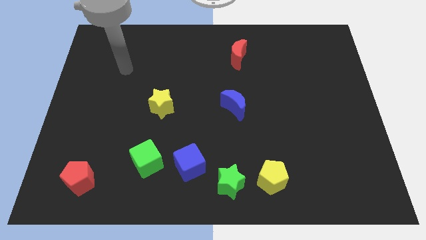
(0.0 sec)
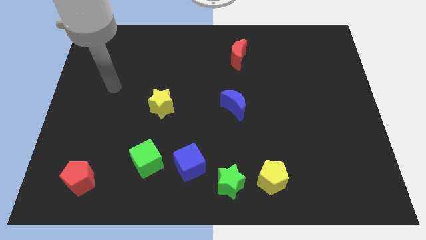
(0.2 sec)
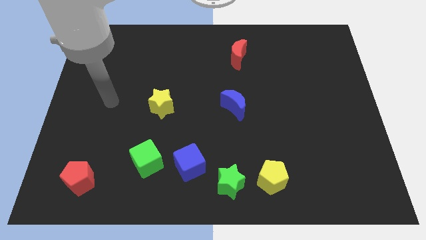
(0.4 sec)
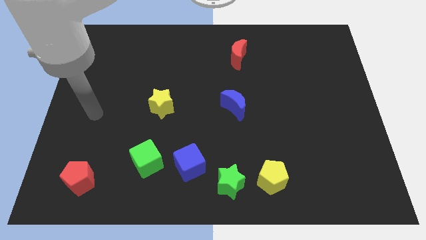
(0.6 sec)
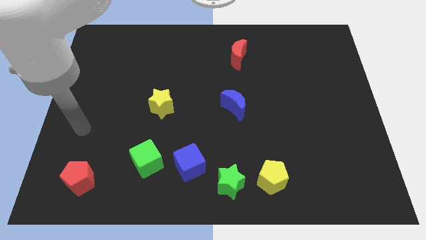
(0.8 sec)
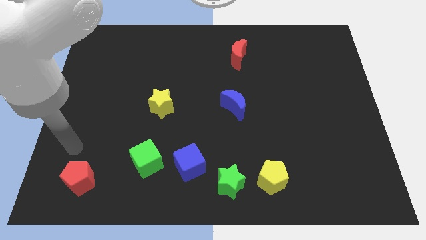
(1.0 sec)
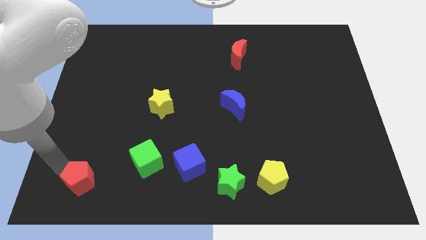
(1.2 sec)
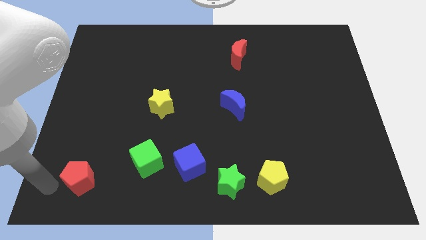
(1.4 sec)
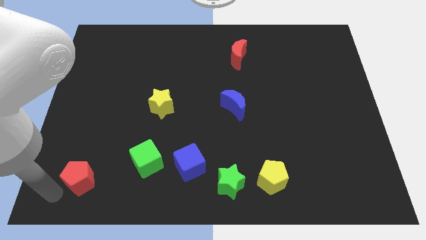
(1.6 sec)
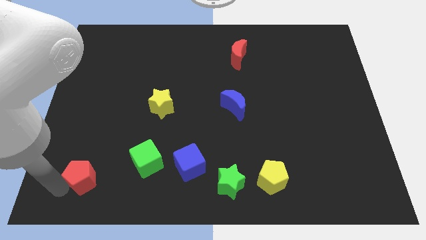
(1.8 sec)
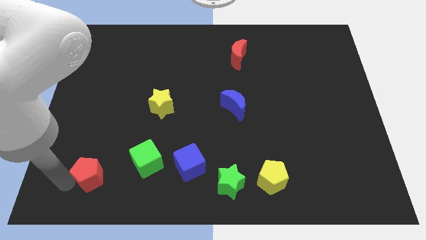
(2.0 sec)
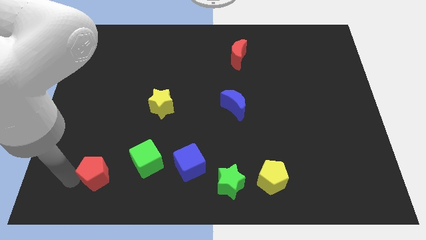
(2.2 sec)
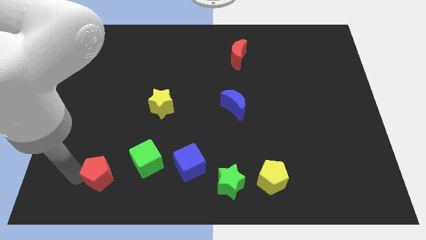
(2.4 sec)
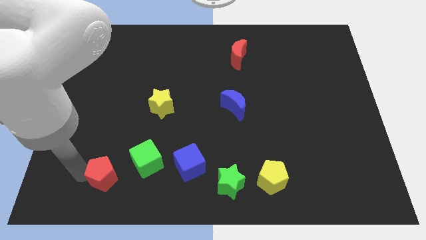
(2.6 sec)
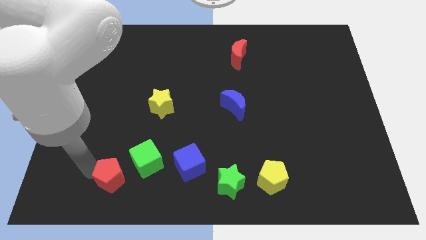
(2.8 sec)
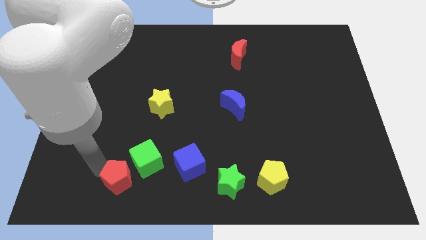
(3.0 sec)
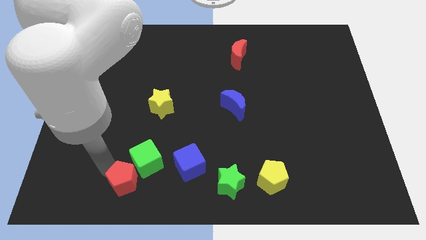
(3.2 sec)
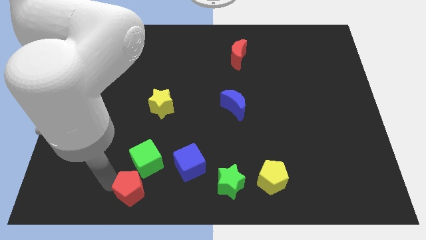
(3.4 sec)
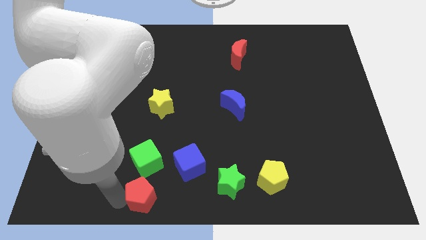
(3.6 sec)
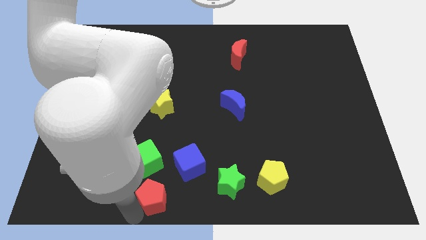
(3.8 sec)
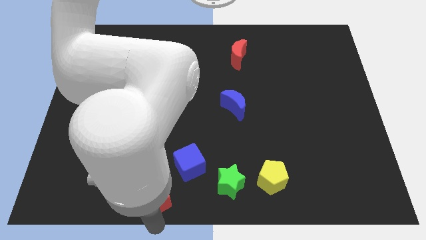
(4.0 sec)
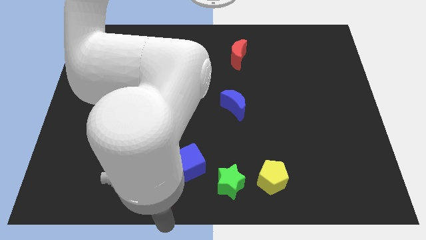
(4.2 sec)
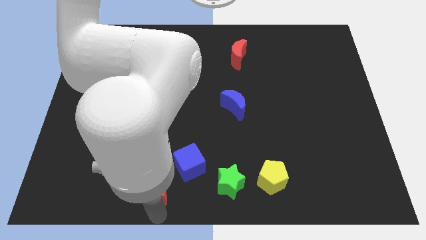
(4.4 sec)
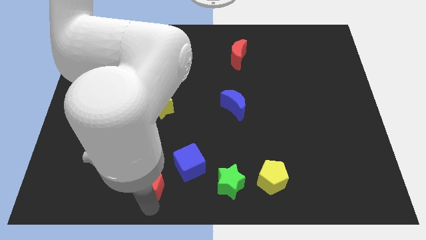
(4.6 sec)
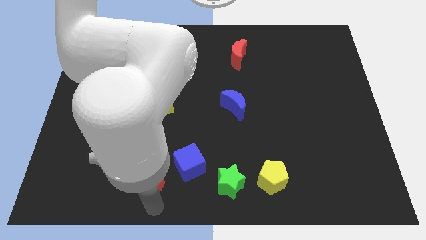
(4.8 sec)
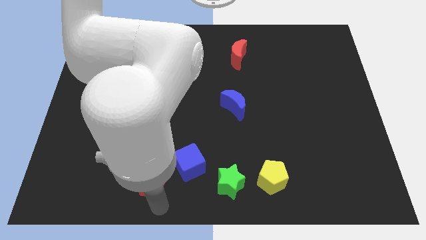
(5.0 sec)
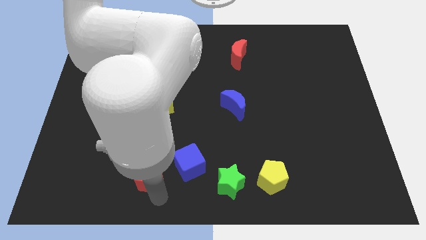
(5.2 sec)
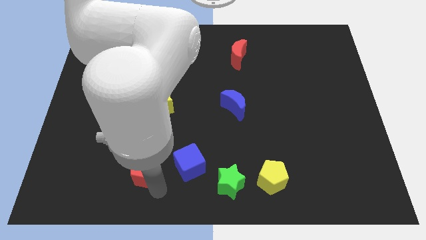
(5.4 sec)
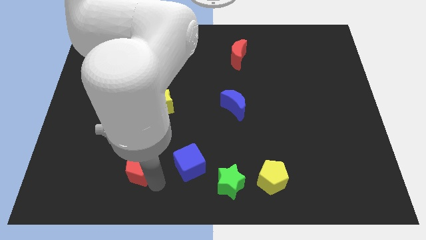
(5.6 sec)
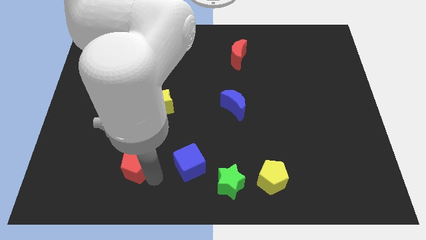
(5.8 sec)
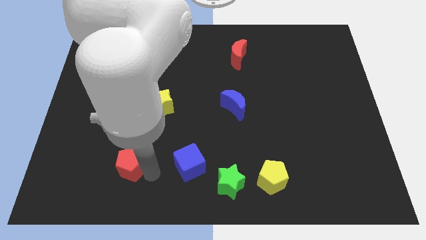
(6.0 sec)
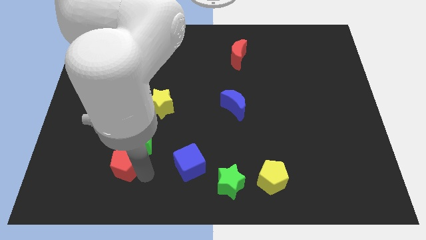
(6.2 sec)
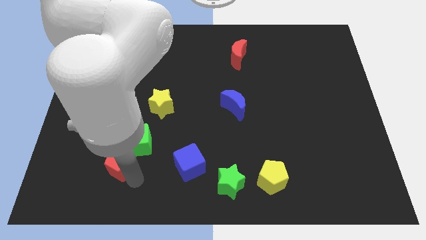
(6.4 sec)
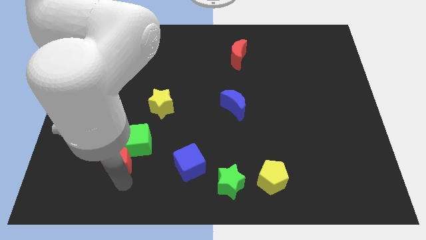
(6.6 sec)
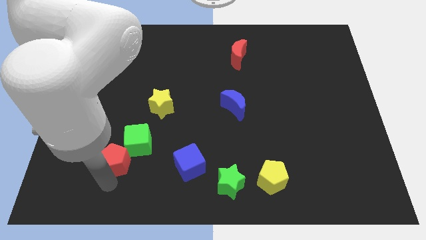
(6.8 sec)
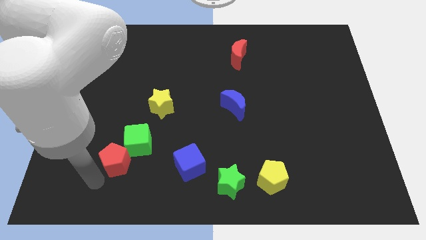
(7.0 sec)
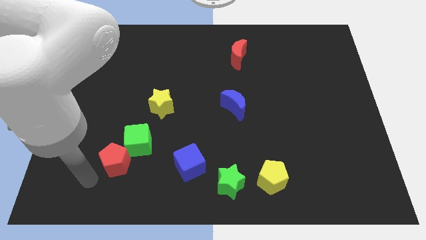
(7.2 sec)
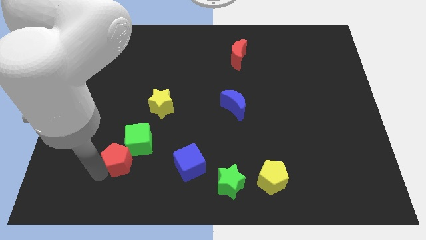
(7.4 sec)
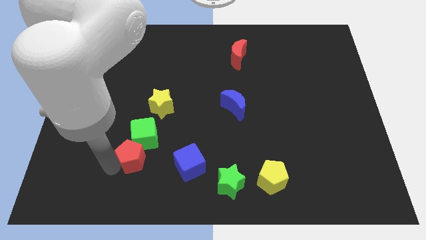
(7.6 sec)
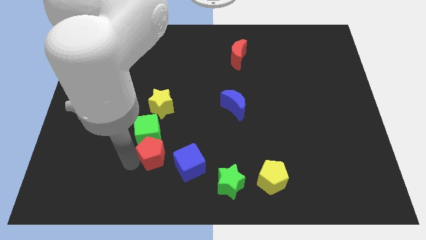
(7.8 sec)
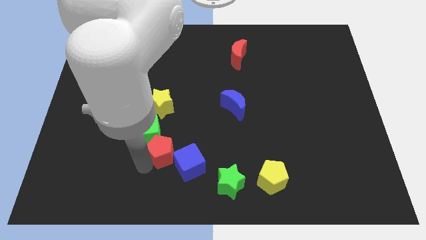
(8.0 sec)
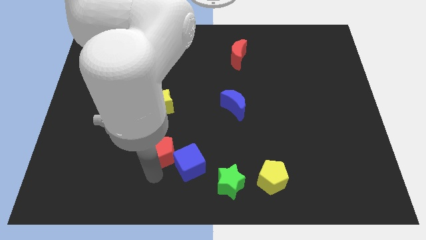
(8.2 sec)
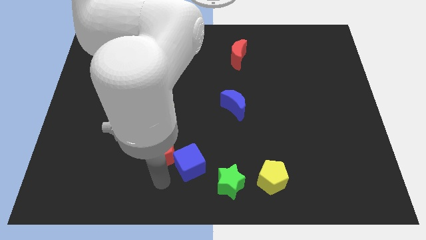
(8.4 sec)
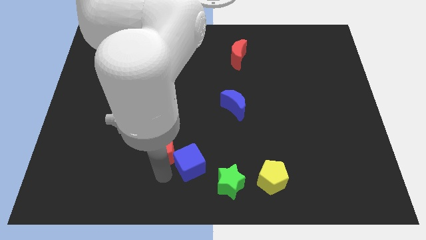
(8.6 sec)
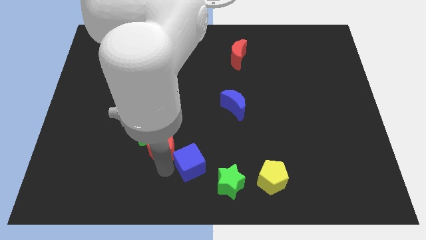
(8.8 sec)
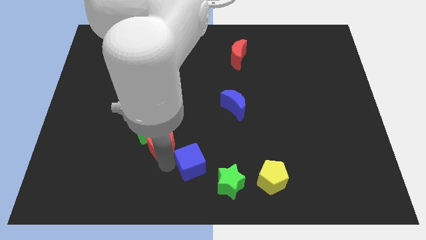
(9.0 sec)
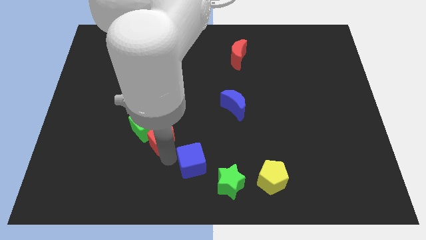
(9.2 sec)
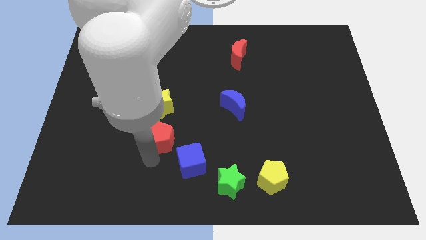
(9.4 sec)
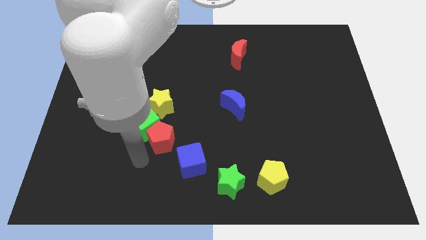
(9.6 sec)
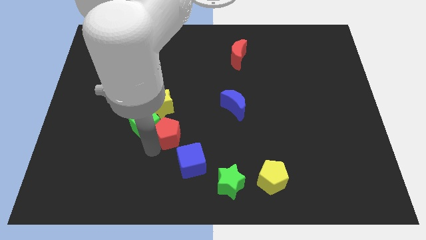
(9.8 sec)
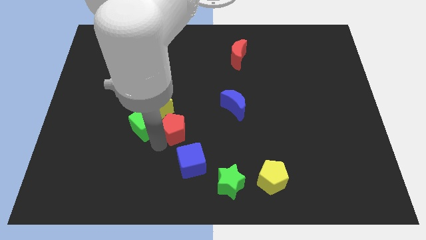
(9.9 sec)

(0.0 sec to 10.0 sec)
put the red pentagon to the center of the board

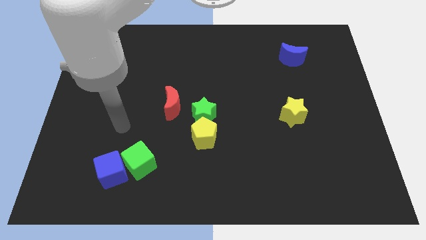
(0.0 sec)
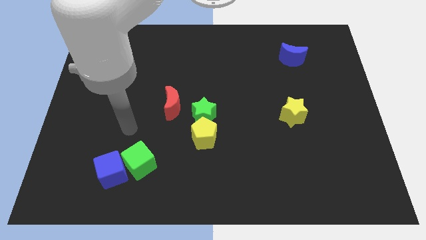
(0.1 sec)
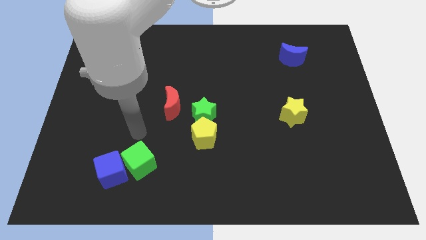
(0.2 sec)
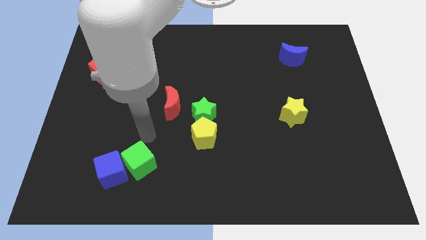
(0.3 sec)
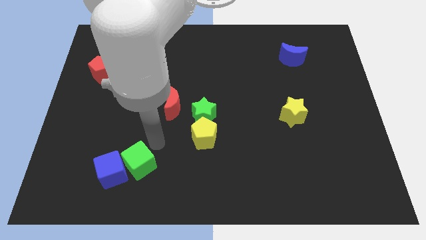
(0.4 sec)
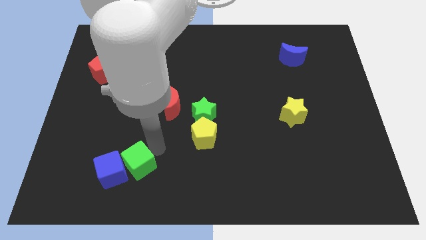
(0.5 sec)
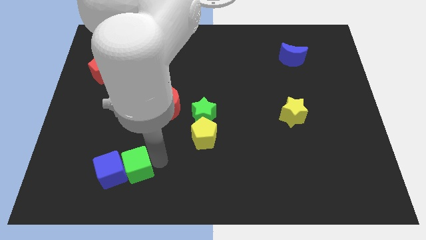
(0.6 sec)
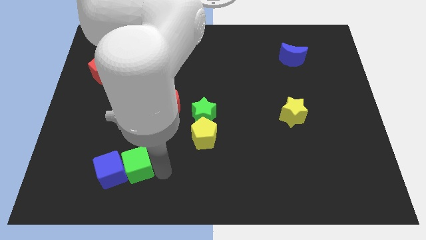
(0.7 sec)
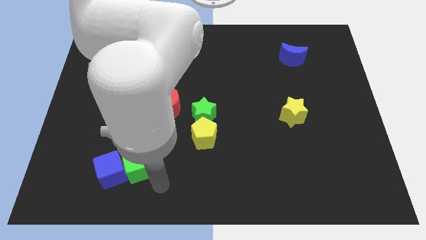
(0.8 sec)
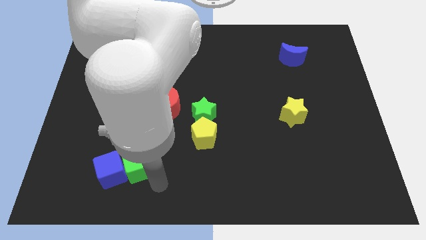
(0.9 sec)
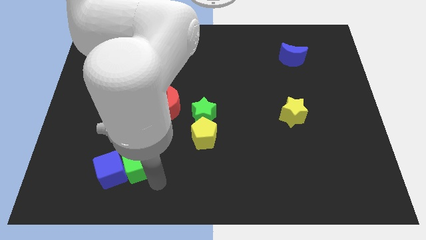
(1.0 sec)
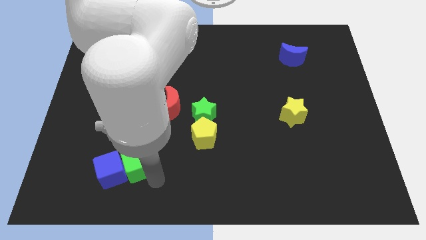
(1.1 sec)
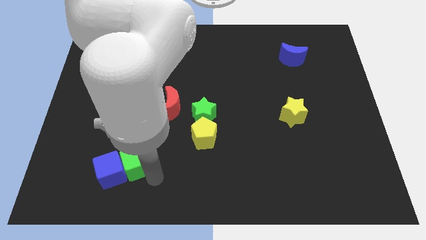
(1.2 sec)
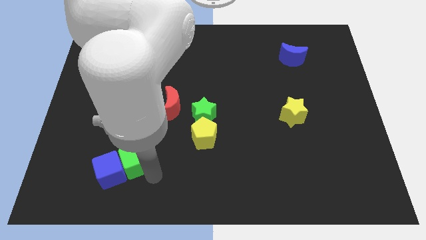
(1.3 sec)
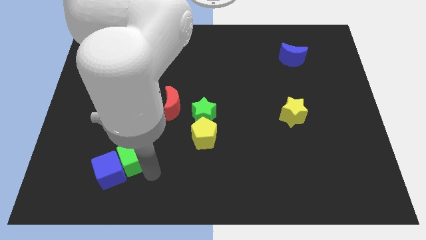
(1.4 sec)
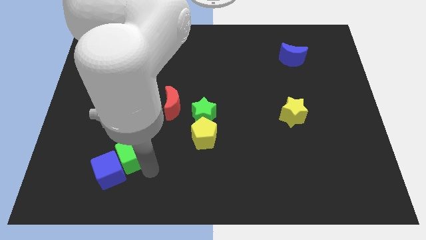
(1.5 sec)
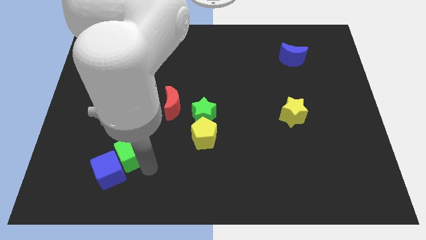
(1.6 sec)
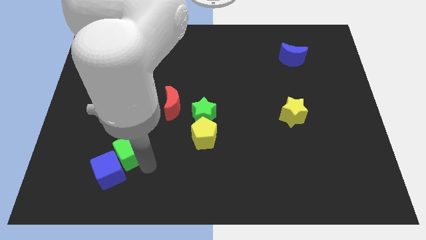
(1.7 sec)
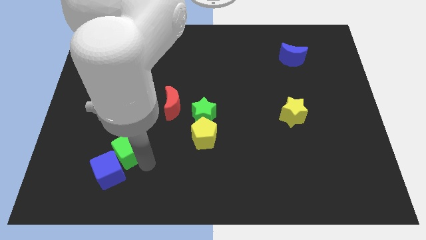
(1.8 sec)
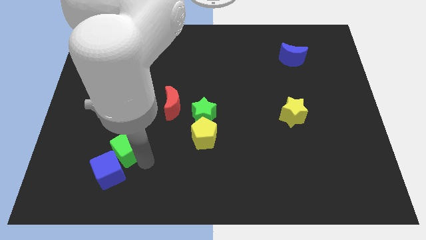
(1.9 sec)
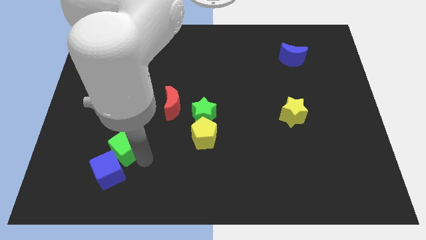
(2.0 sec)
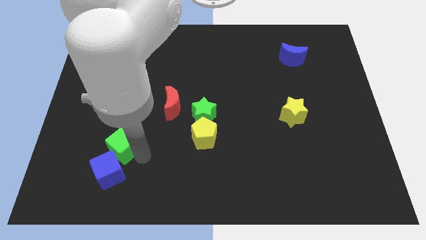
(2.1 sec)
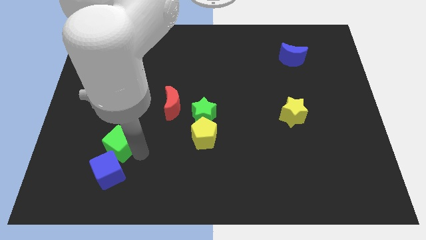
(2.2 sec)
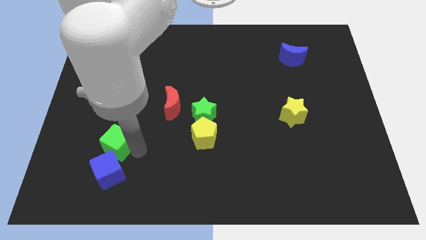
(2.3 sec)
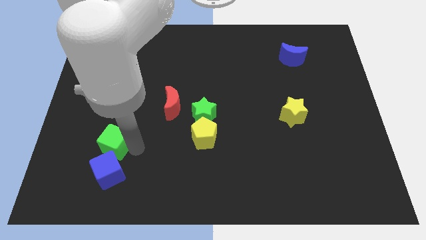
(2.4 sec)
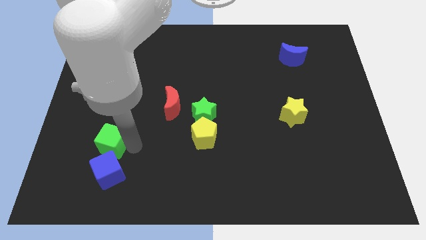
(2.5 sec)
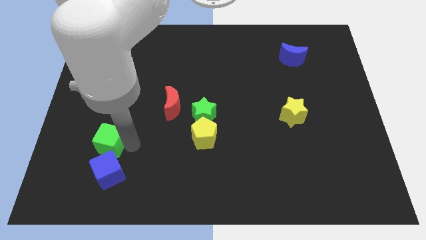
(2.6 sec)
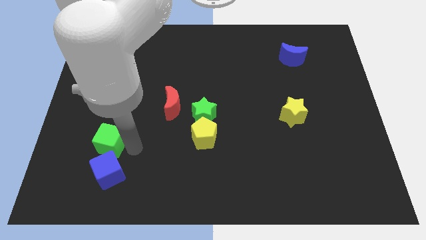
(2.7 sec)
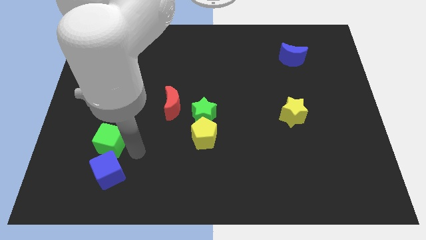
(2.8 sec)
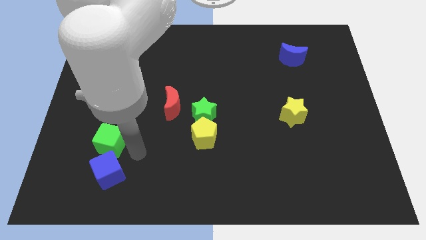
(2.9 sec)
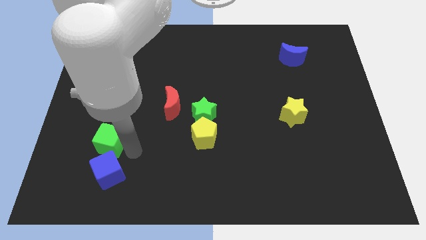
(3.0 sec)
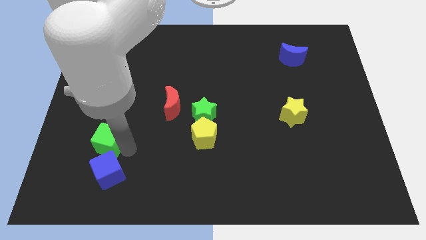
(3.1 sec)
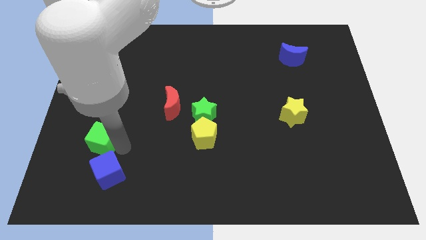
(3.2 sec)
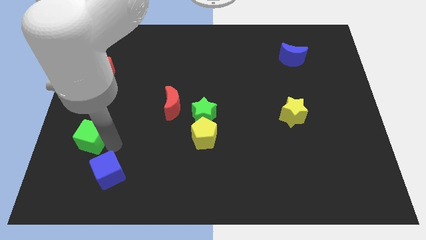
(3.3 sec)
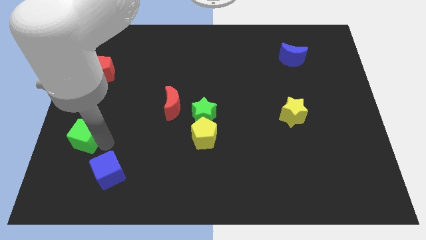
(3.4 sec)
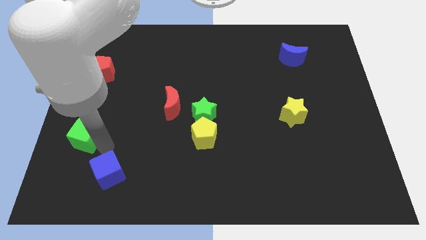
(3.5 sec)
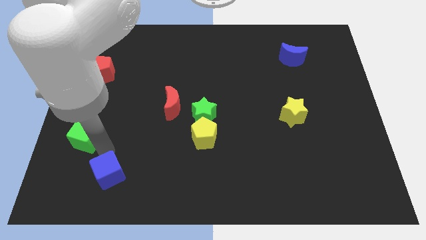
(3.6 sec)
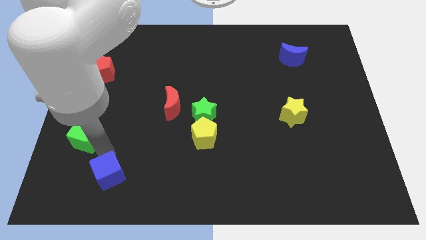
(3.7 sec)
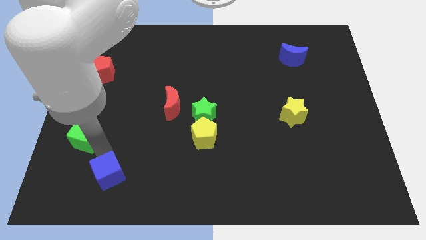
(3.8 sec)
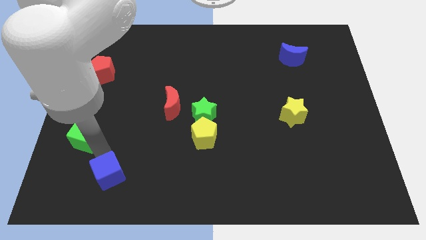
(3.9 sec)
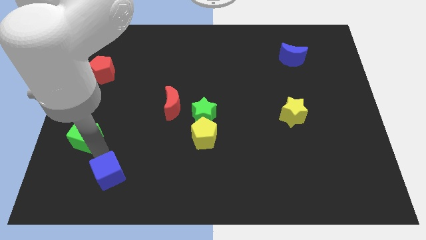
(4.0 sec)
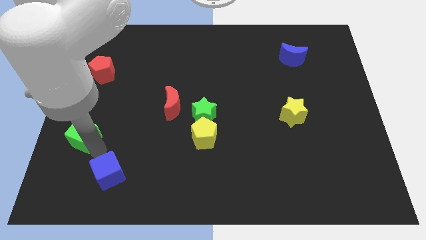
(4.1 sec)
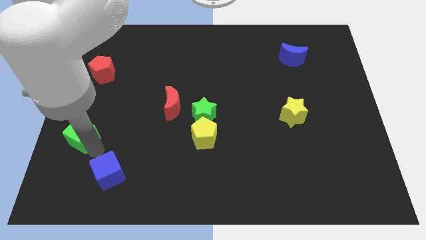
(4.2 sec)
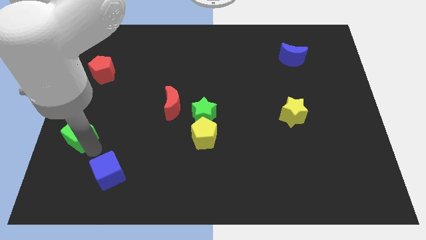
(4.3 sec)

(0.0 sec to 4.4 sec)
slide the green cube to the center left
